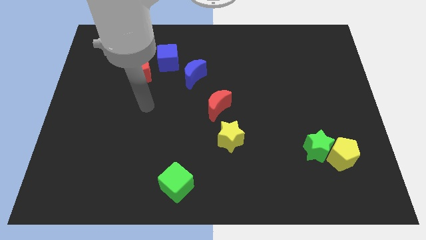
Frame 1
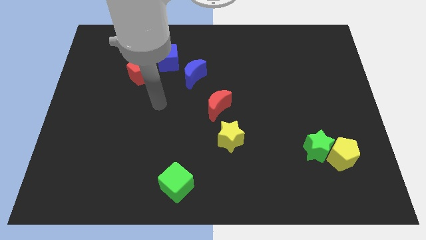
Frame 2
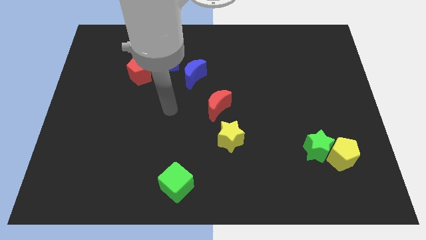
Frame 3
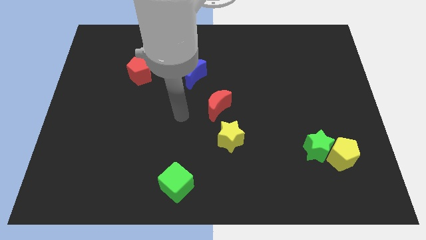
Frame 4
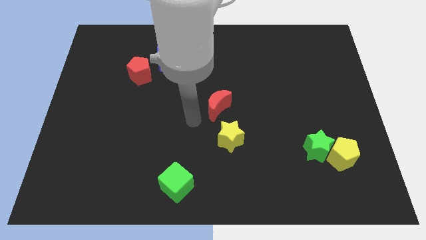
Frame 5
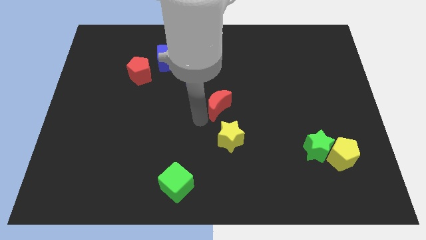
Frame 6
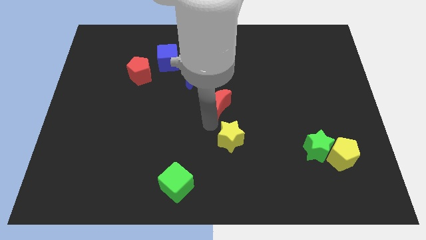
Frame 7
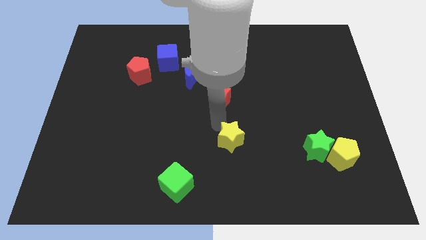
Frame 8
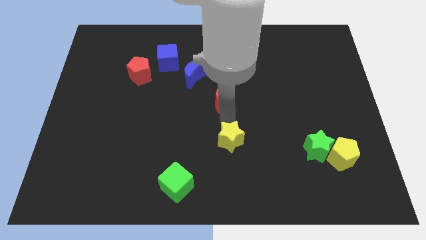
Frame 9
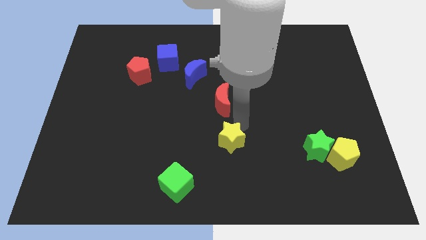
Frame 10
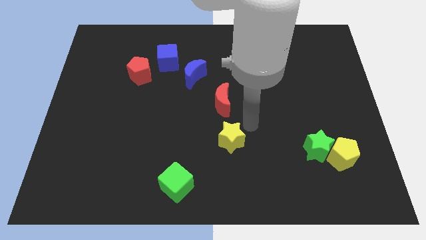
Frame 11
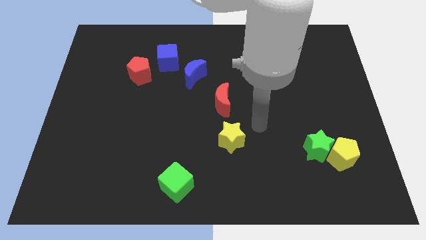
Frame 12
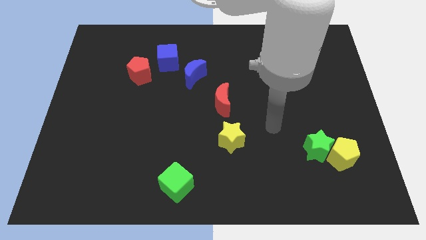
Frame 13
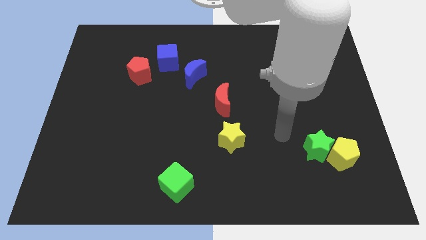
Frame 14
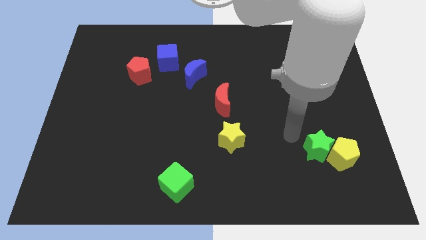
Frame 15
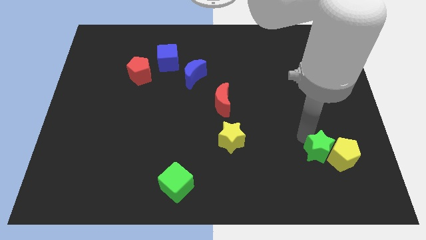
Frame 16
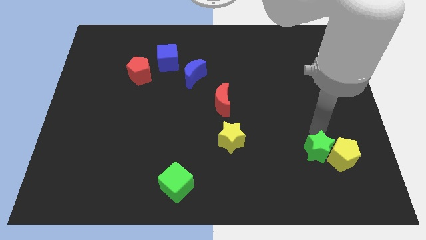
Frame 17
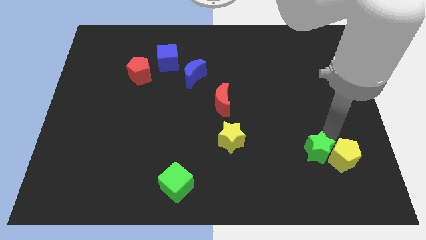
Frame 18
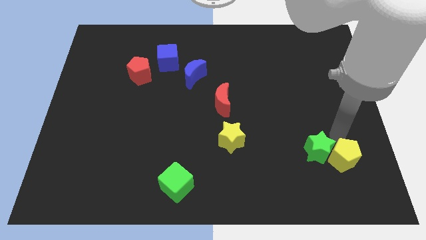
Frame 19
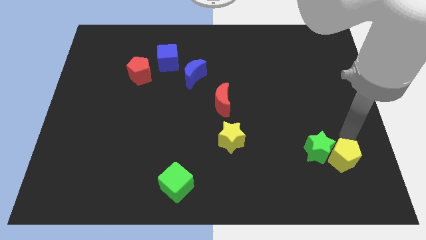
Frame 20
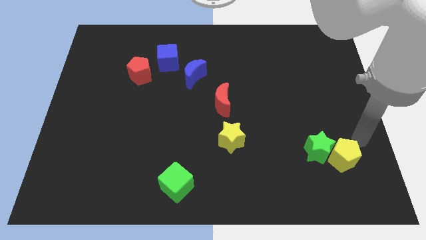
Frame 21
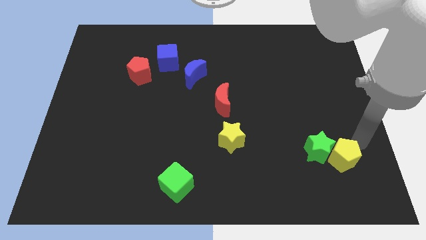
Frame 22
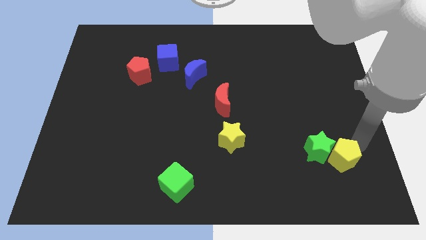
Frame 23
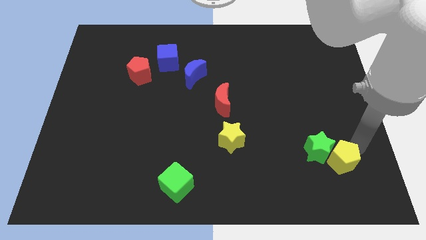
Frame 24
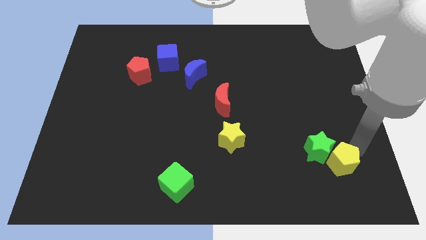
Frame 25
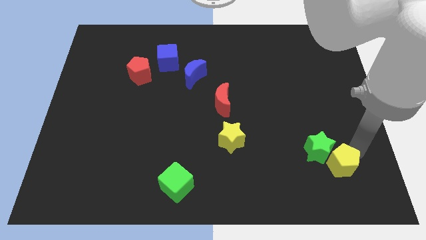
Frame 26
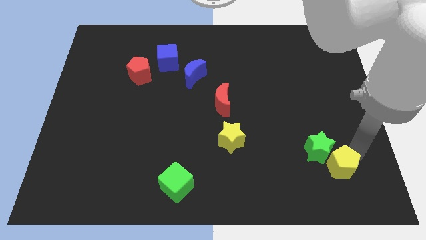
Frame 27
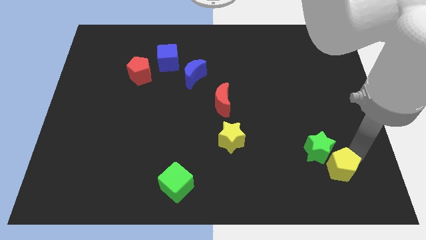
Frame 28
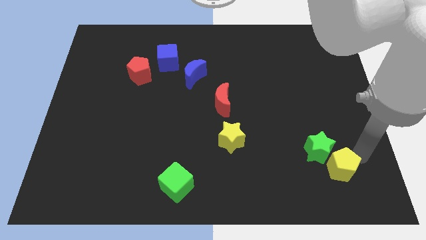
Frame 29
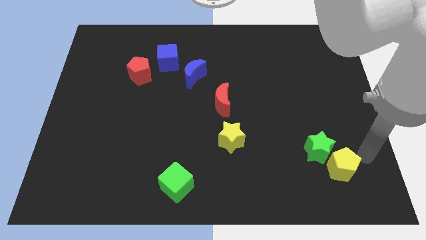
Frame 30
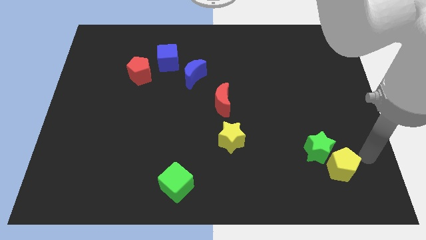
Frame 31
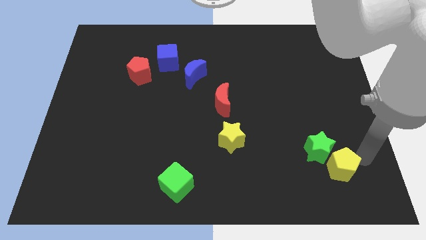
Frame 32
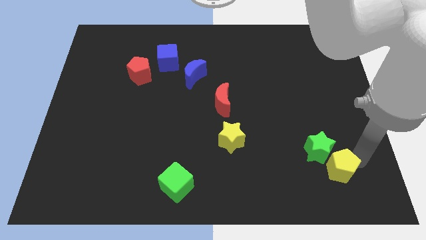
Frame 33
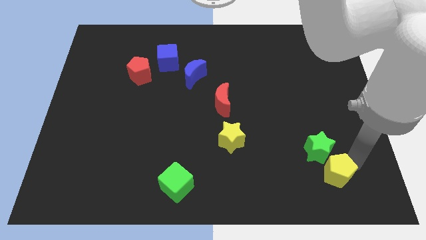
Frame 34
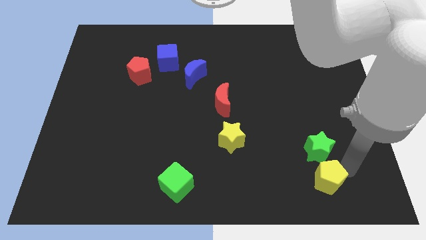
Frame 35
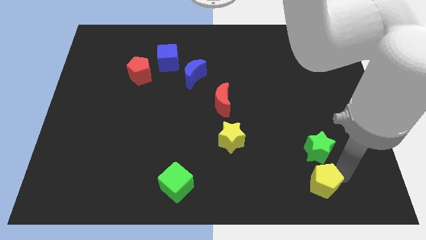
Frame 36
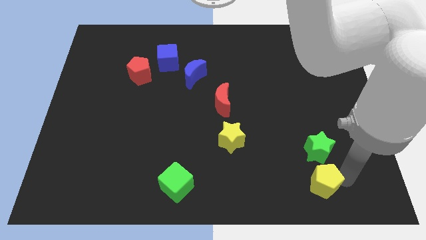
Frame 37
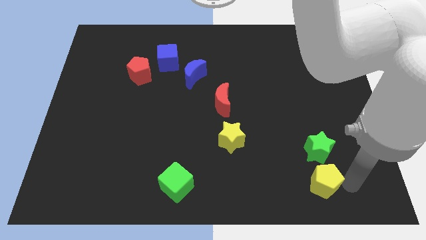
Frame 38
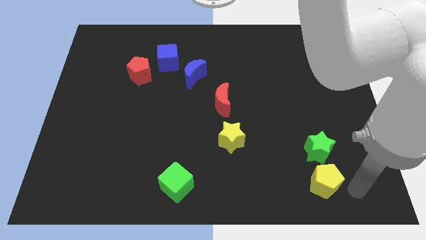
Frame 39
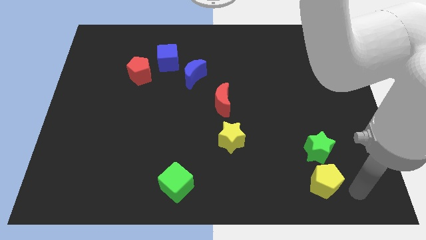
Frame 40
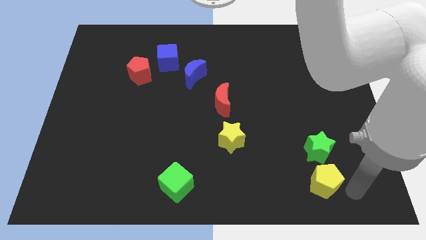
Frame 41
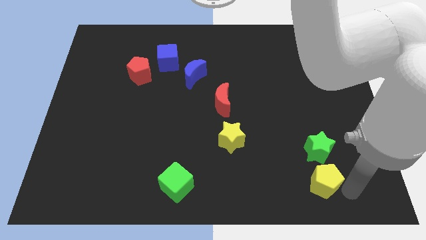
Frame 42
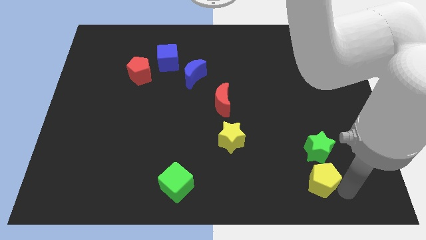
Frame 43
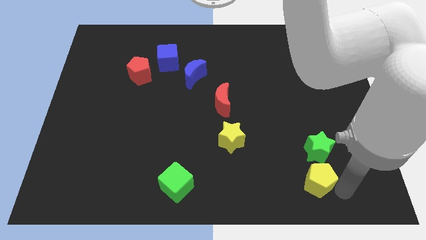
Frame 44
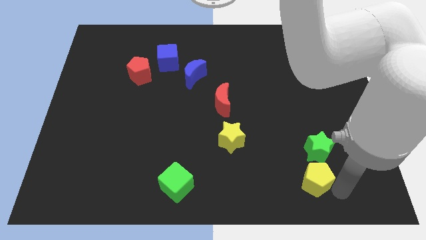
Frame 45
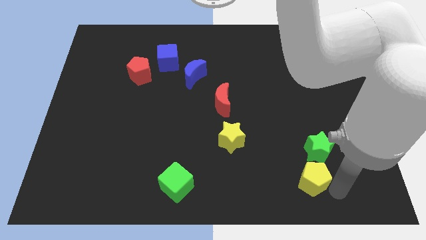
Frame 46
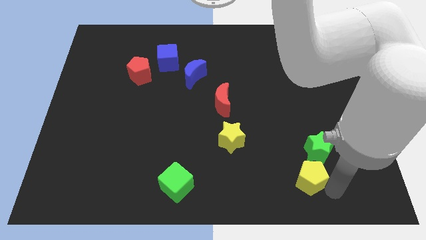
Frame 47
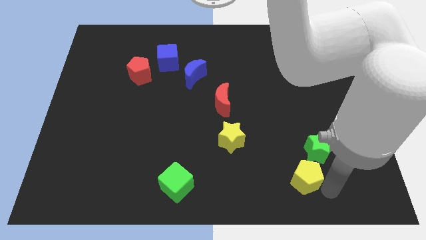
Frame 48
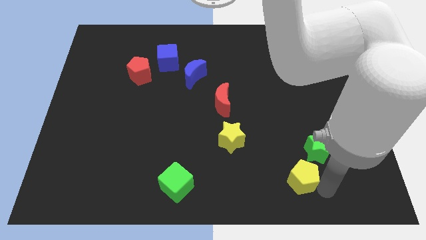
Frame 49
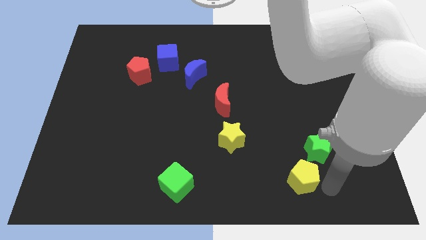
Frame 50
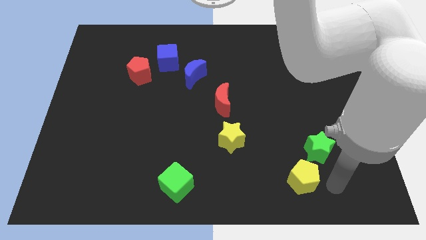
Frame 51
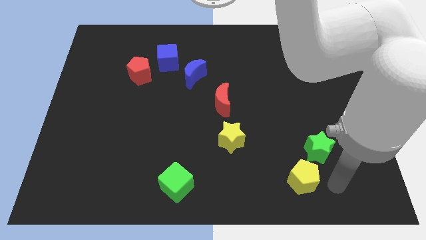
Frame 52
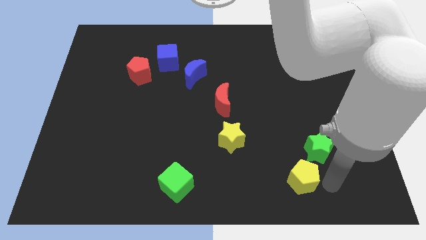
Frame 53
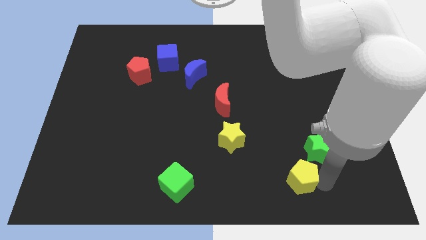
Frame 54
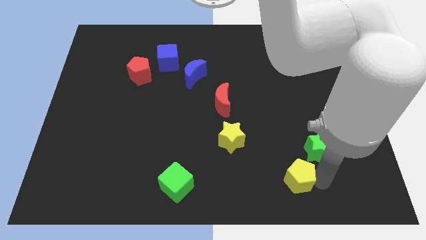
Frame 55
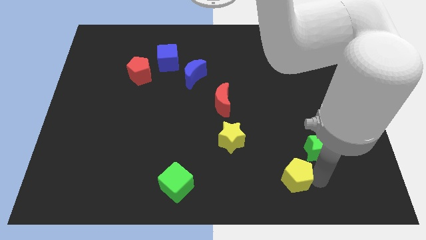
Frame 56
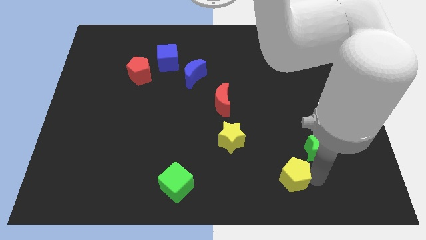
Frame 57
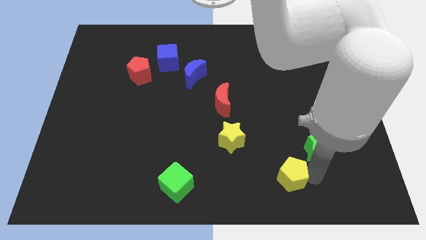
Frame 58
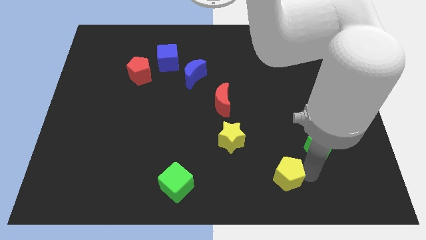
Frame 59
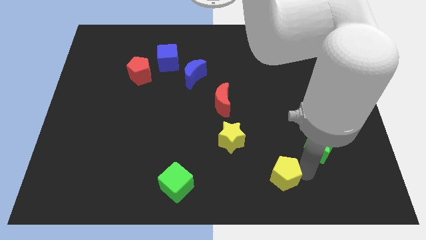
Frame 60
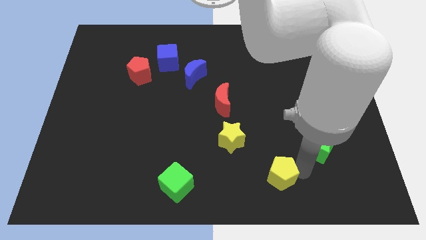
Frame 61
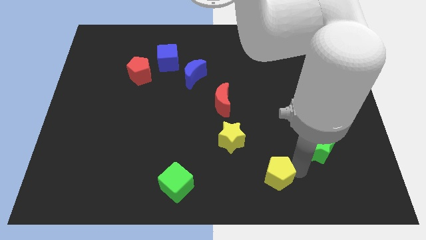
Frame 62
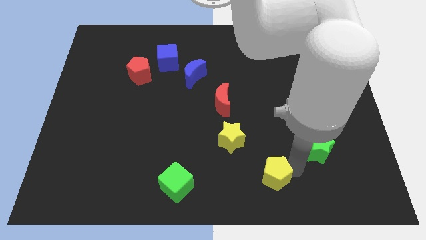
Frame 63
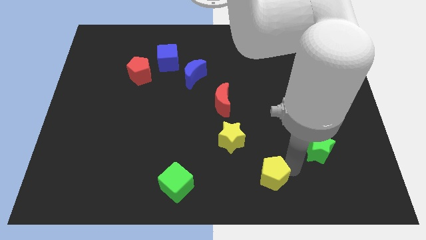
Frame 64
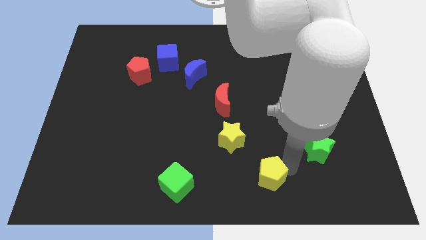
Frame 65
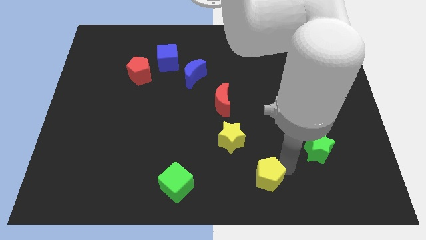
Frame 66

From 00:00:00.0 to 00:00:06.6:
put the yellow pentagon to the bottom side

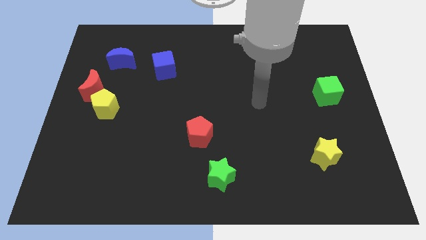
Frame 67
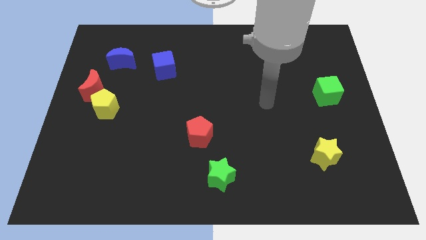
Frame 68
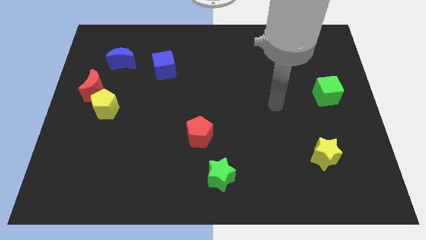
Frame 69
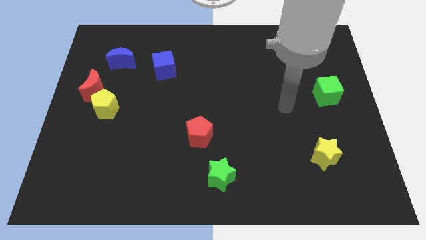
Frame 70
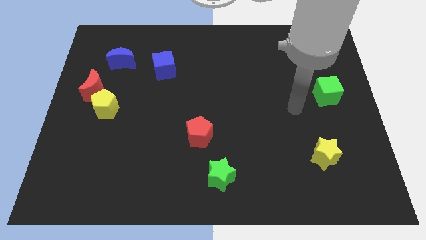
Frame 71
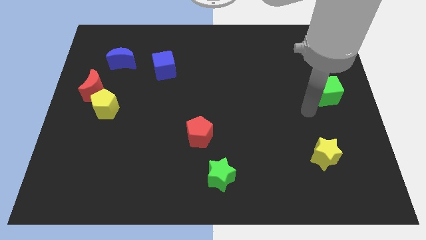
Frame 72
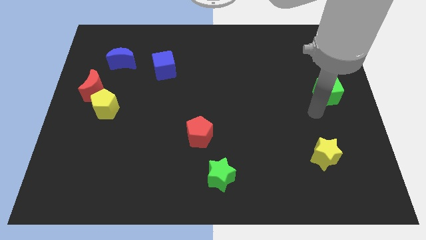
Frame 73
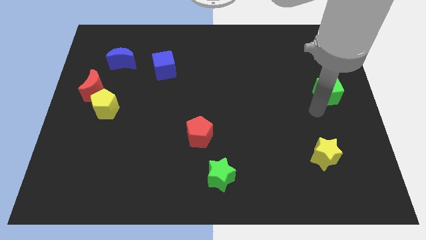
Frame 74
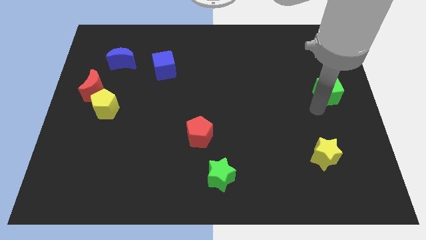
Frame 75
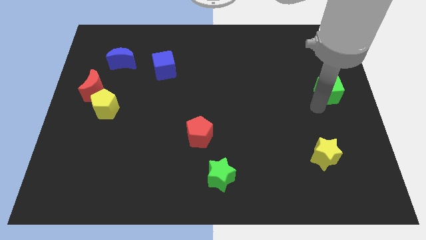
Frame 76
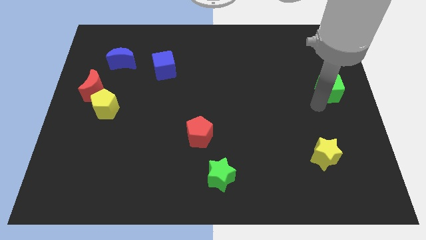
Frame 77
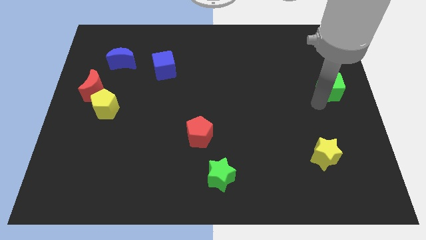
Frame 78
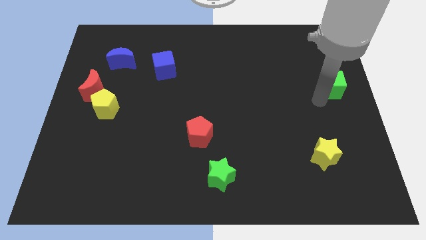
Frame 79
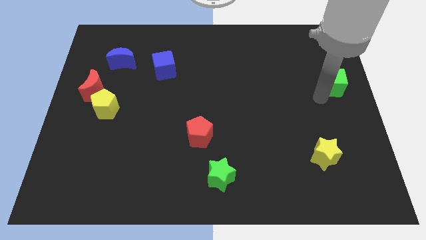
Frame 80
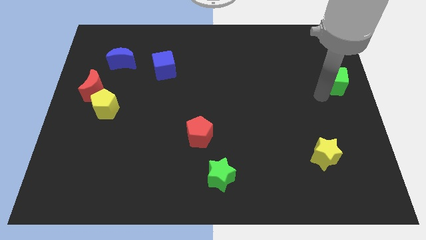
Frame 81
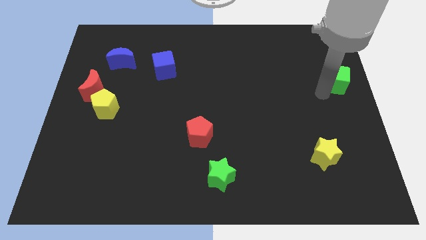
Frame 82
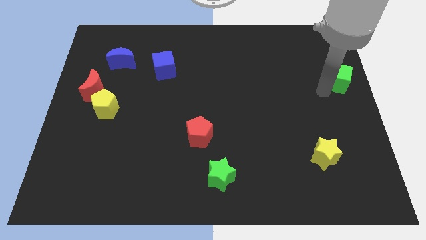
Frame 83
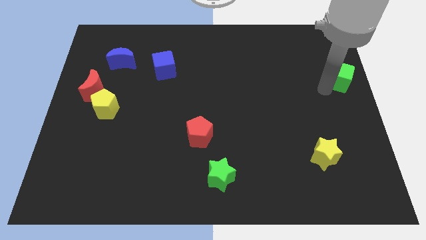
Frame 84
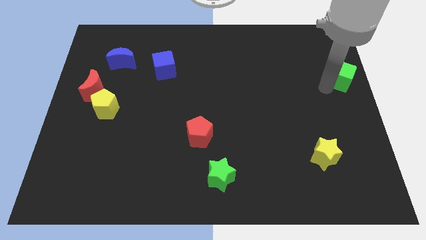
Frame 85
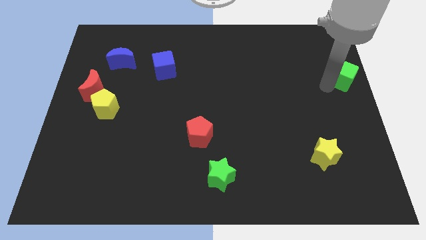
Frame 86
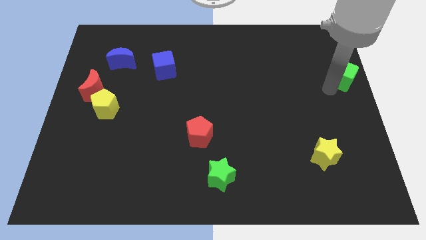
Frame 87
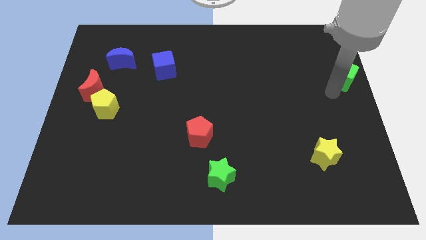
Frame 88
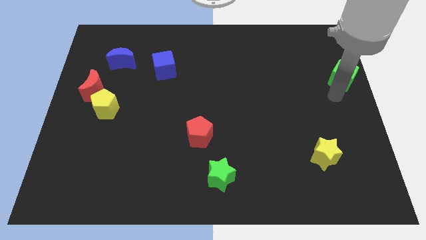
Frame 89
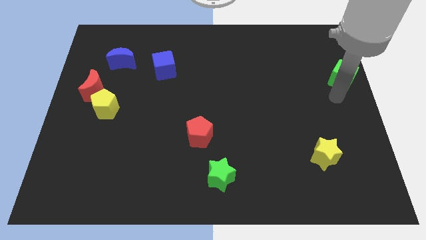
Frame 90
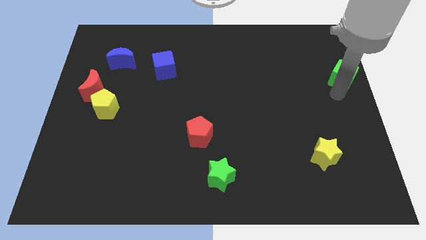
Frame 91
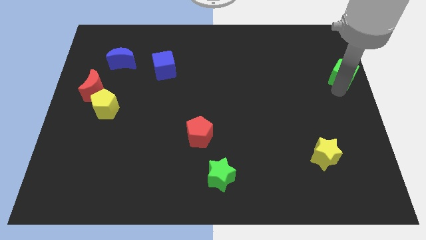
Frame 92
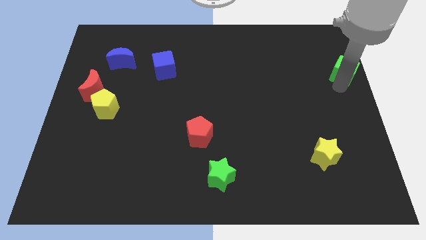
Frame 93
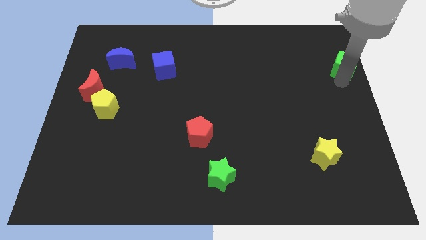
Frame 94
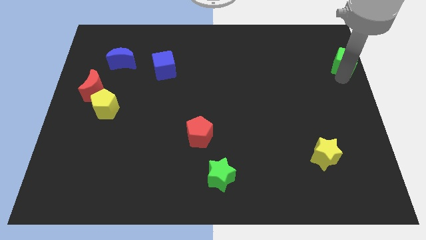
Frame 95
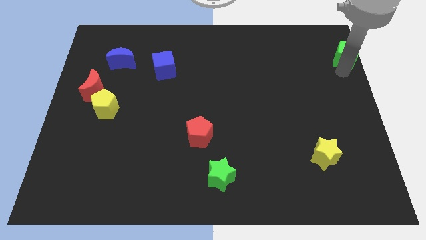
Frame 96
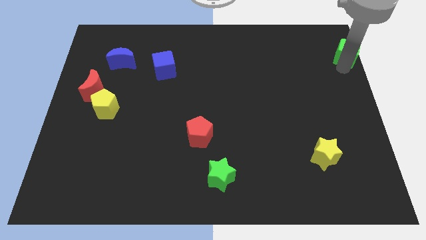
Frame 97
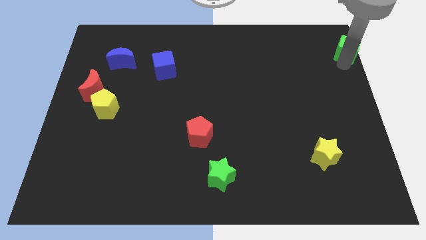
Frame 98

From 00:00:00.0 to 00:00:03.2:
slide the green cube to the top right corner
